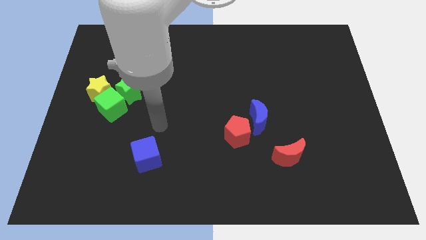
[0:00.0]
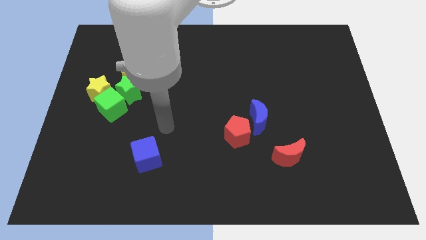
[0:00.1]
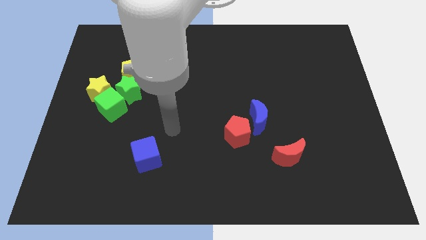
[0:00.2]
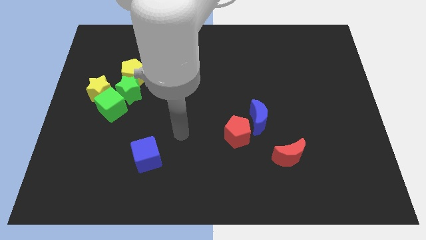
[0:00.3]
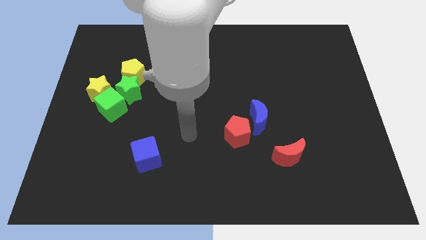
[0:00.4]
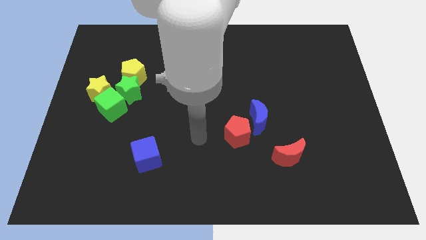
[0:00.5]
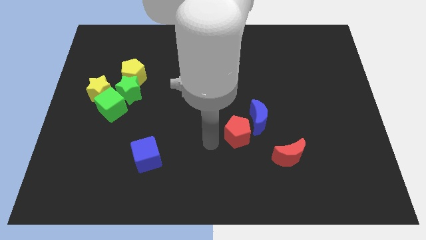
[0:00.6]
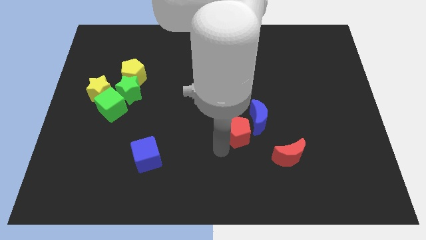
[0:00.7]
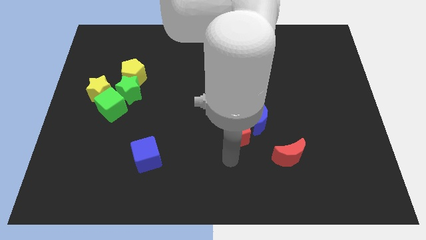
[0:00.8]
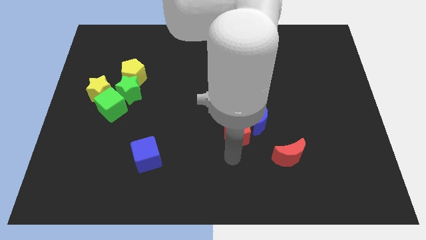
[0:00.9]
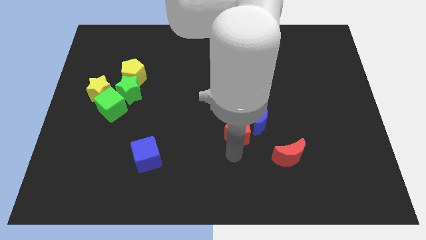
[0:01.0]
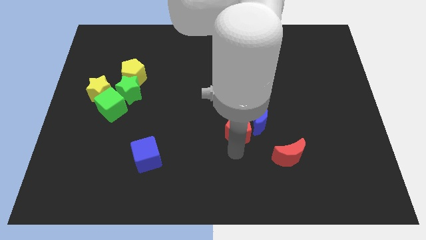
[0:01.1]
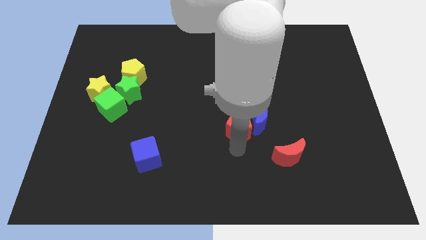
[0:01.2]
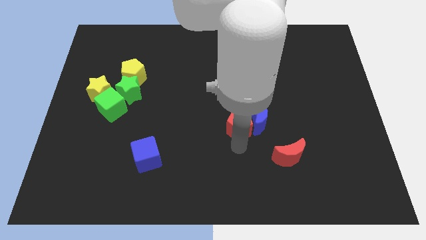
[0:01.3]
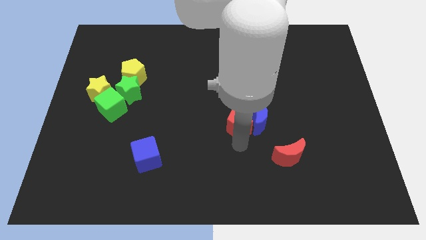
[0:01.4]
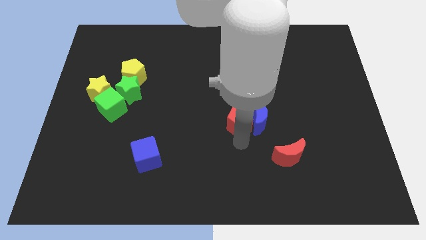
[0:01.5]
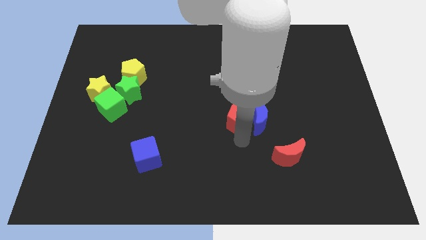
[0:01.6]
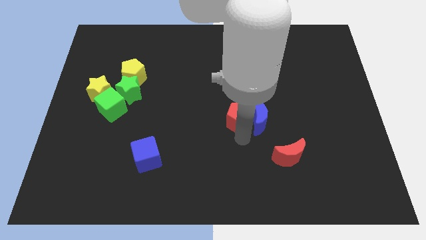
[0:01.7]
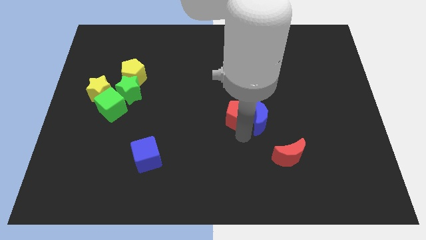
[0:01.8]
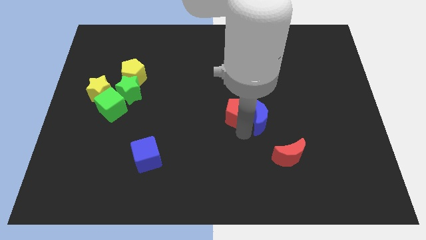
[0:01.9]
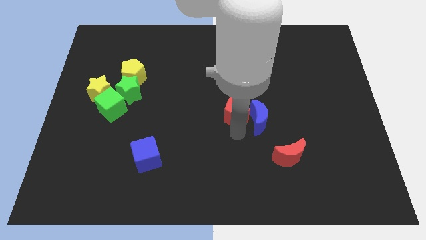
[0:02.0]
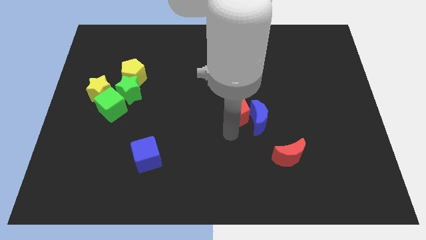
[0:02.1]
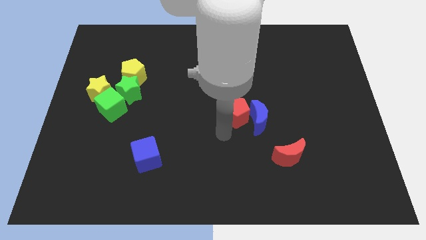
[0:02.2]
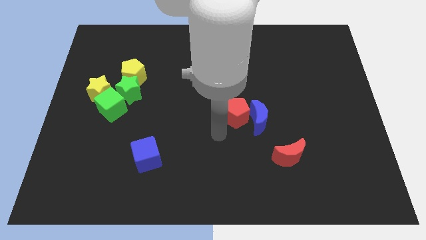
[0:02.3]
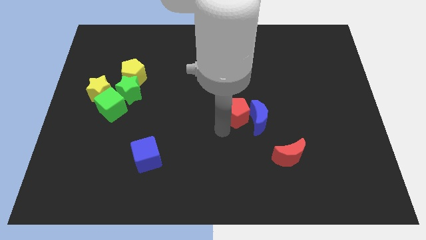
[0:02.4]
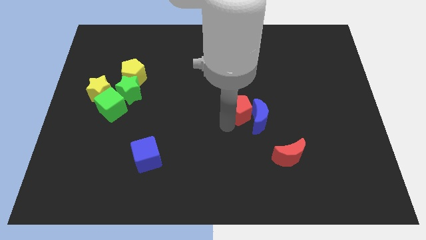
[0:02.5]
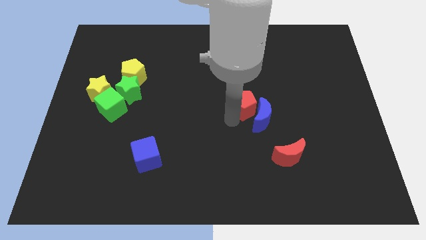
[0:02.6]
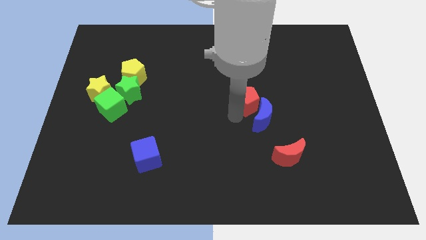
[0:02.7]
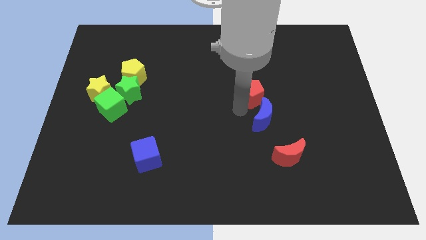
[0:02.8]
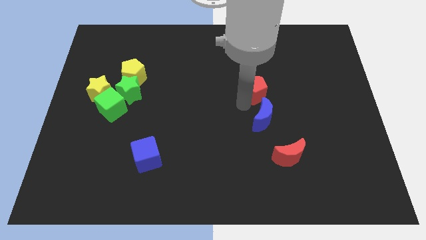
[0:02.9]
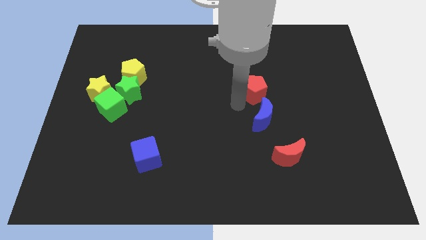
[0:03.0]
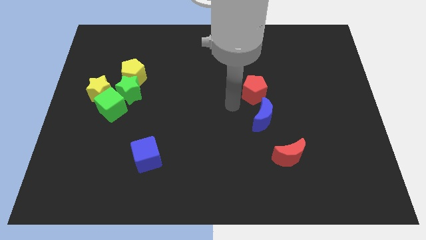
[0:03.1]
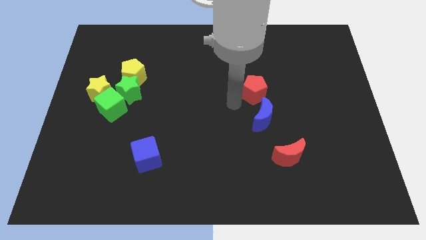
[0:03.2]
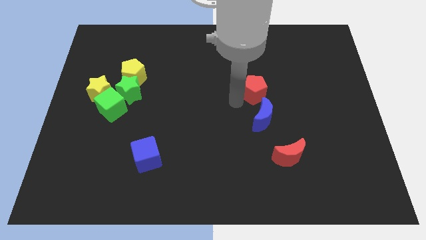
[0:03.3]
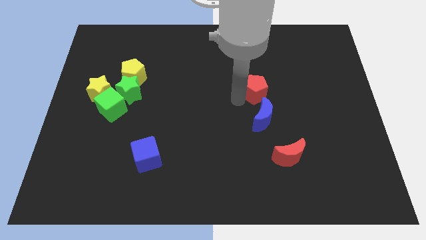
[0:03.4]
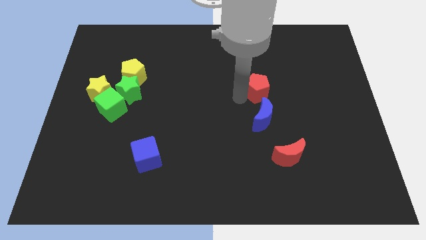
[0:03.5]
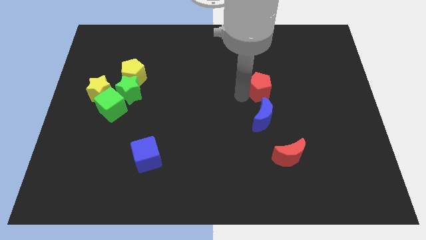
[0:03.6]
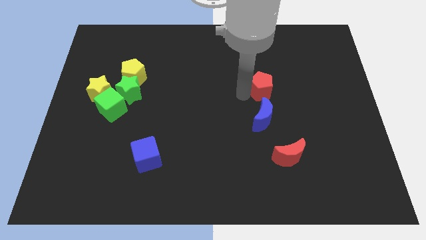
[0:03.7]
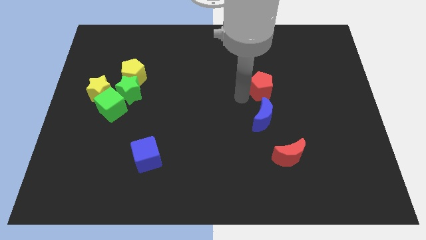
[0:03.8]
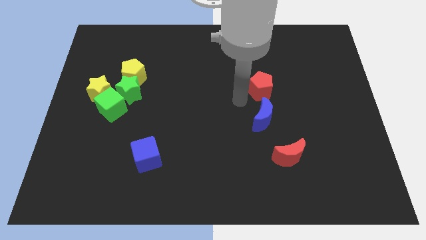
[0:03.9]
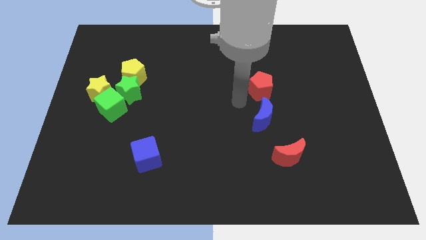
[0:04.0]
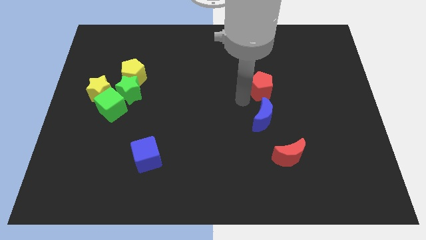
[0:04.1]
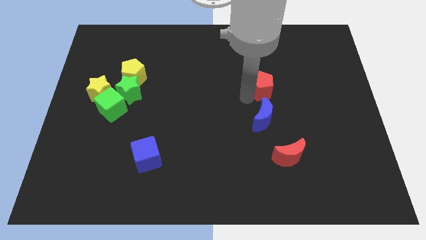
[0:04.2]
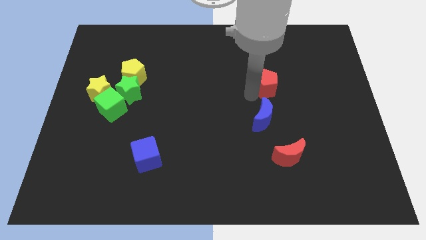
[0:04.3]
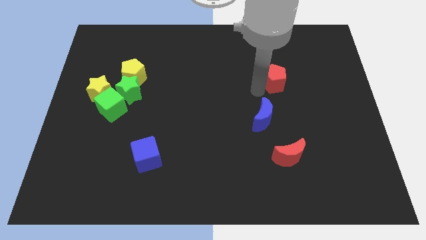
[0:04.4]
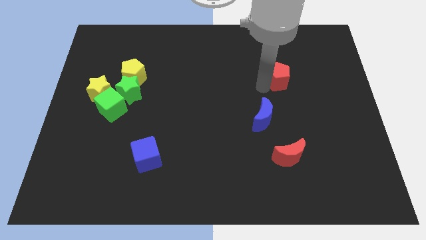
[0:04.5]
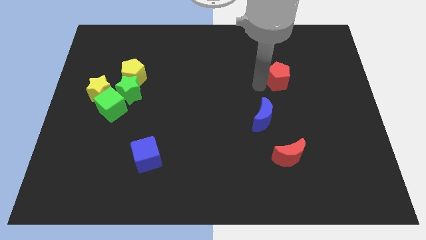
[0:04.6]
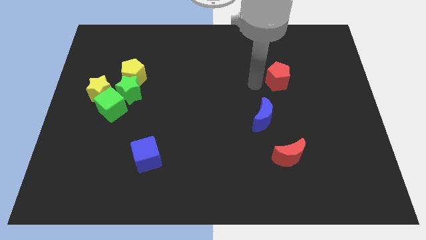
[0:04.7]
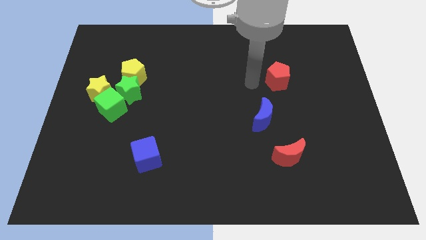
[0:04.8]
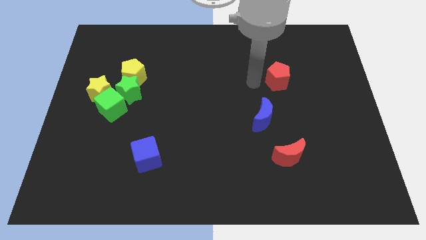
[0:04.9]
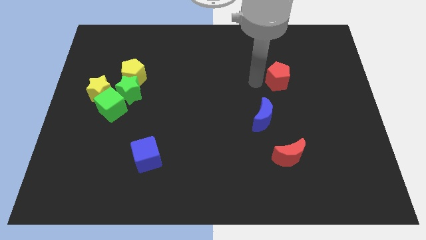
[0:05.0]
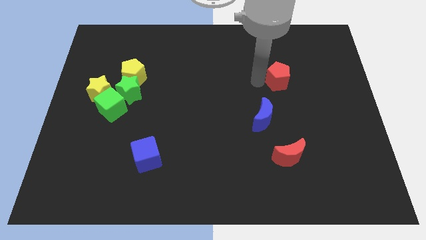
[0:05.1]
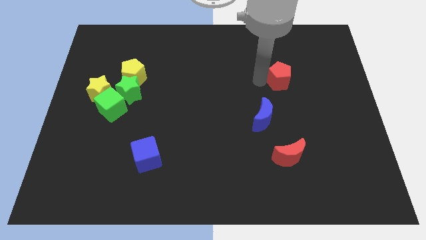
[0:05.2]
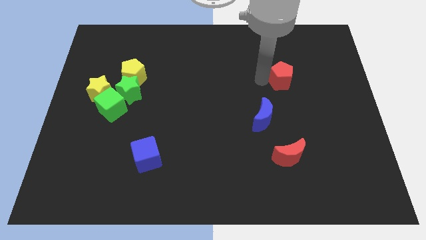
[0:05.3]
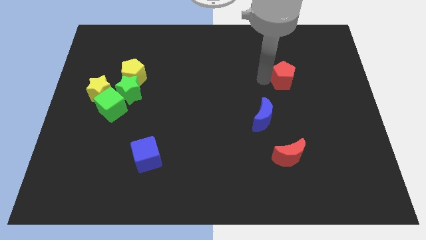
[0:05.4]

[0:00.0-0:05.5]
slide the red pentagon upwards and to the right

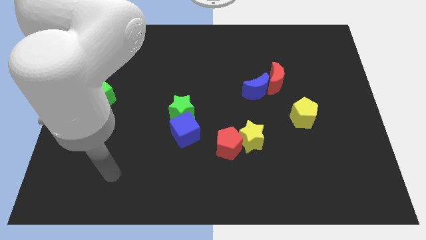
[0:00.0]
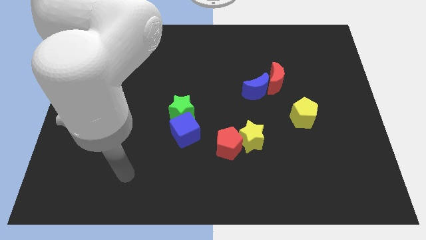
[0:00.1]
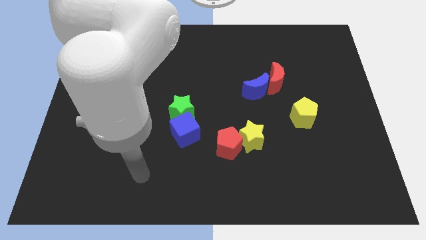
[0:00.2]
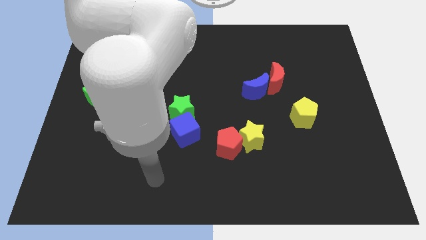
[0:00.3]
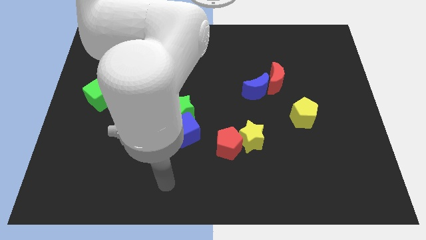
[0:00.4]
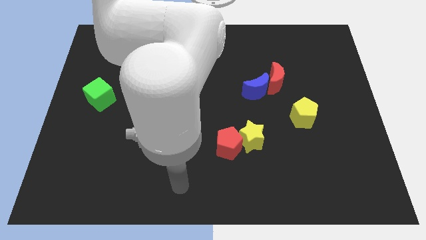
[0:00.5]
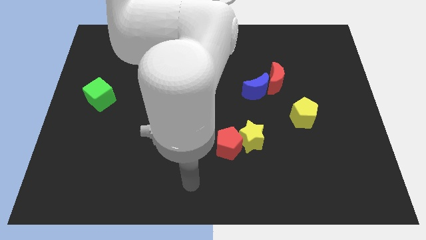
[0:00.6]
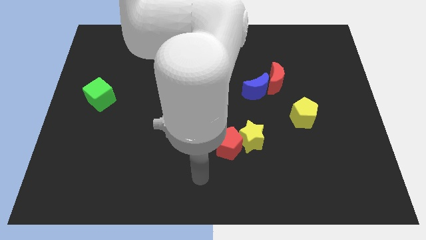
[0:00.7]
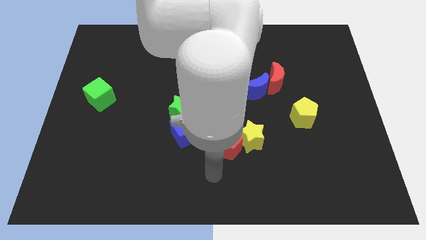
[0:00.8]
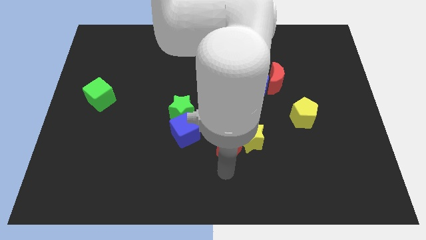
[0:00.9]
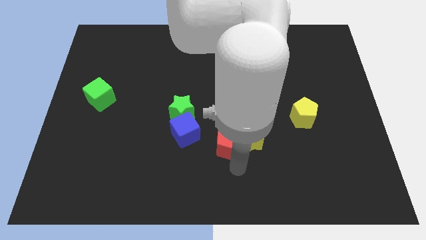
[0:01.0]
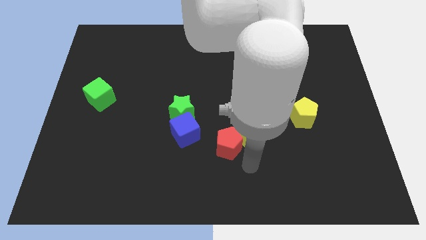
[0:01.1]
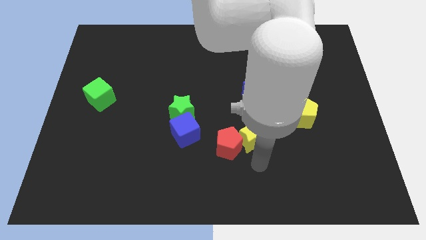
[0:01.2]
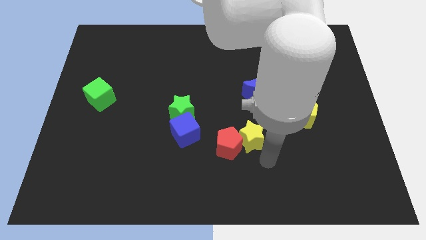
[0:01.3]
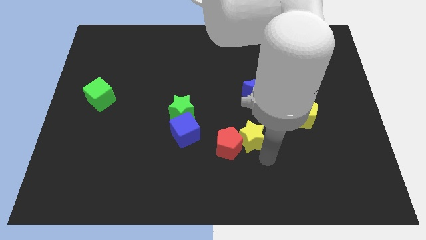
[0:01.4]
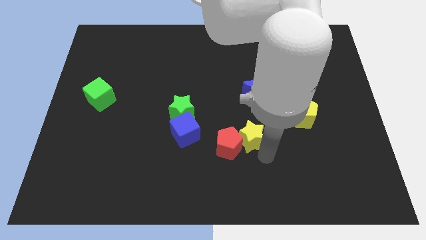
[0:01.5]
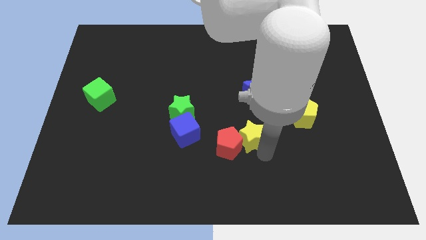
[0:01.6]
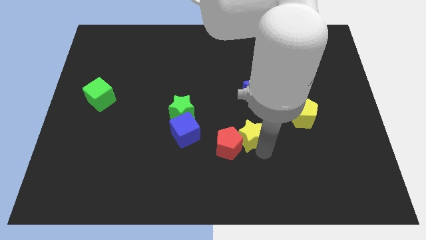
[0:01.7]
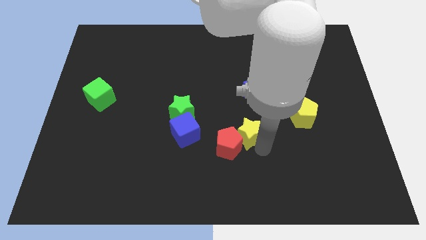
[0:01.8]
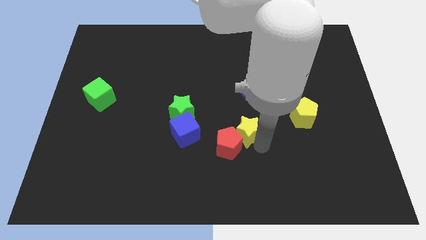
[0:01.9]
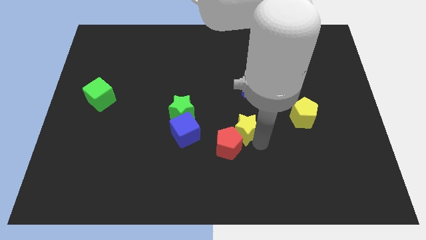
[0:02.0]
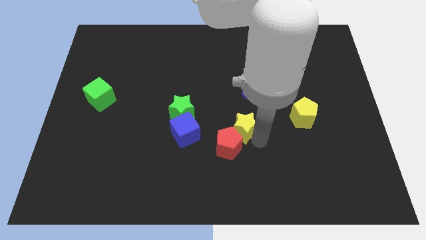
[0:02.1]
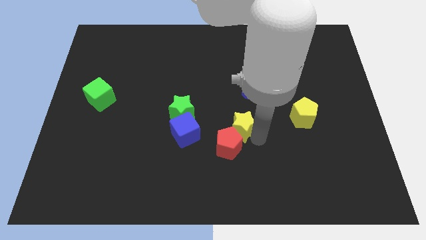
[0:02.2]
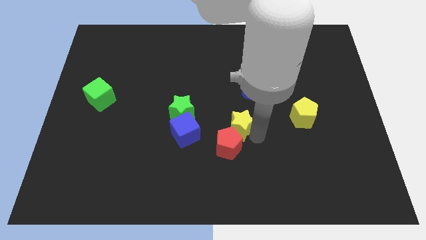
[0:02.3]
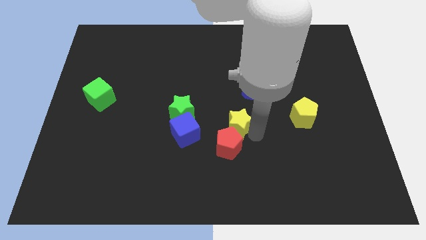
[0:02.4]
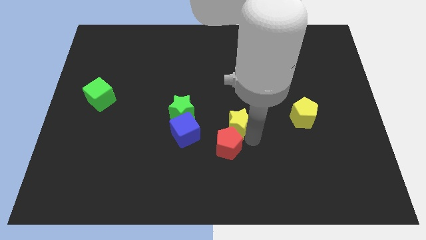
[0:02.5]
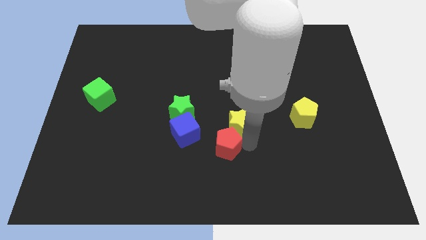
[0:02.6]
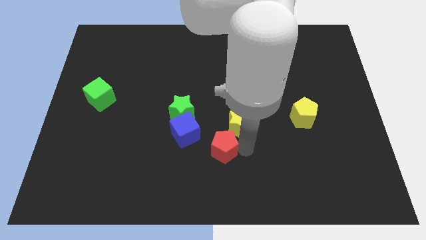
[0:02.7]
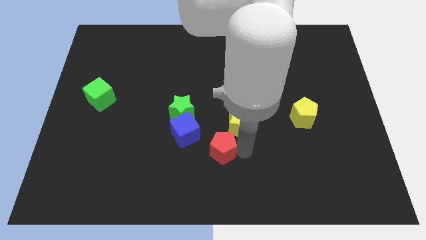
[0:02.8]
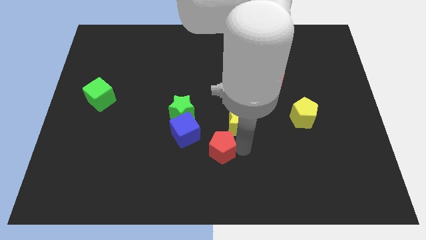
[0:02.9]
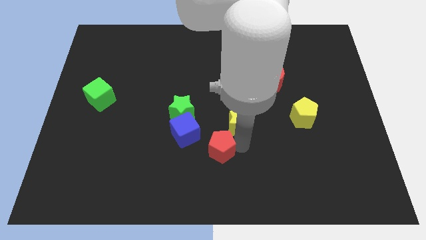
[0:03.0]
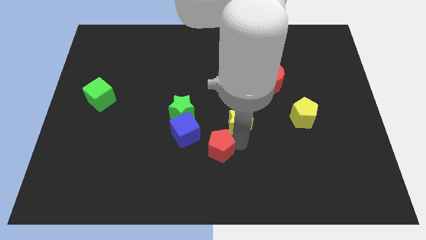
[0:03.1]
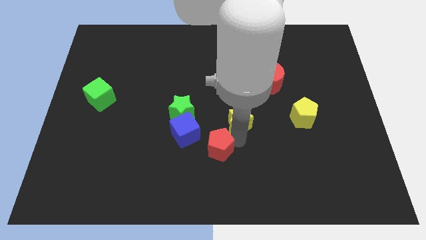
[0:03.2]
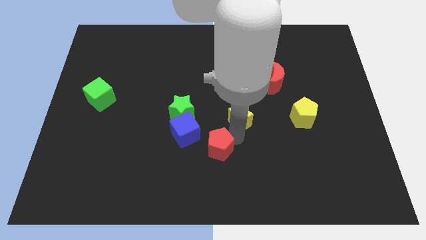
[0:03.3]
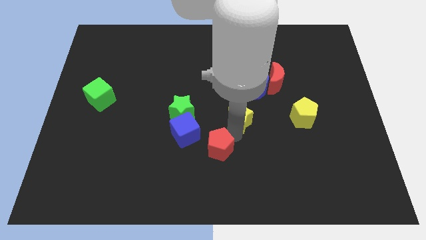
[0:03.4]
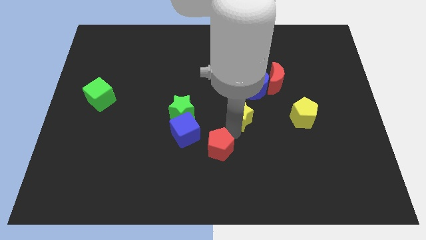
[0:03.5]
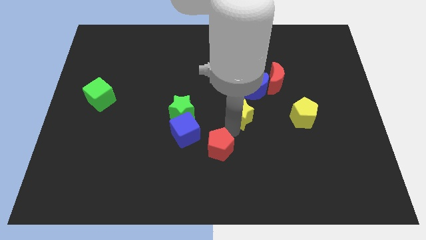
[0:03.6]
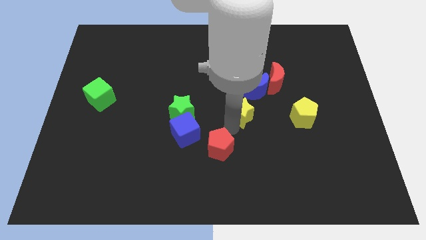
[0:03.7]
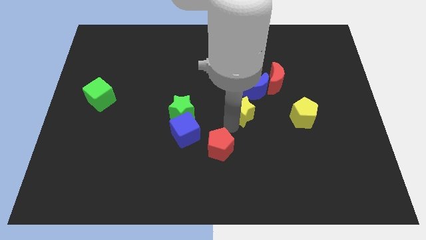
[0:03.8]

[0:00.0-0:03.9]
move the yellow star a little up
